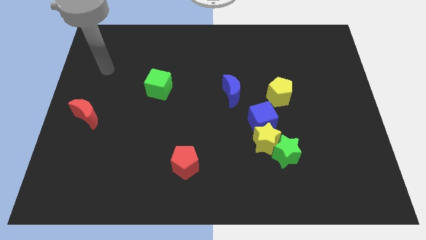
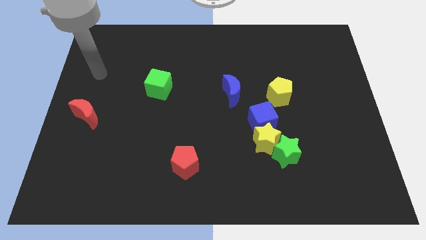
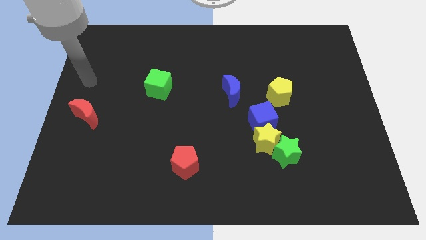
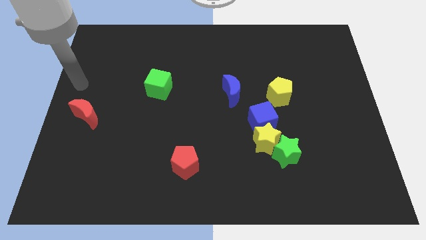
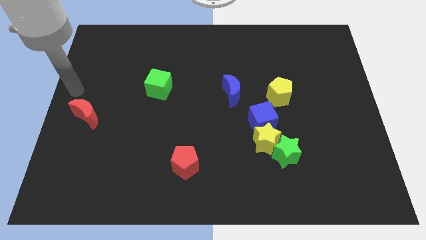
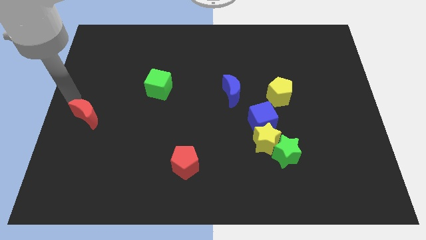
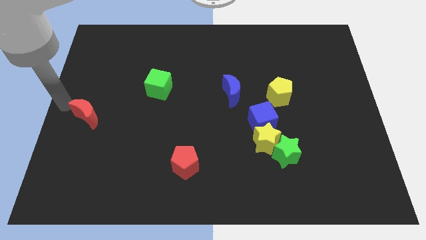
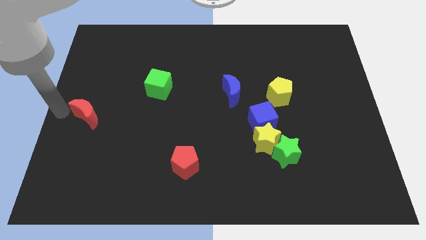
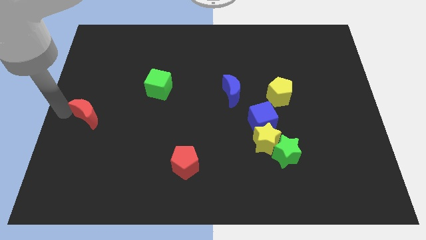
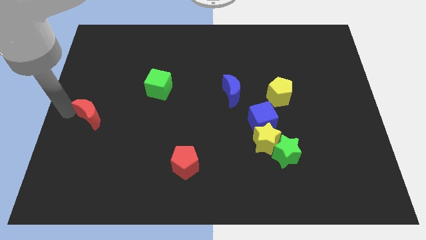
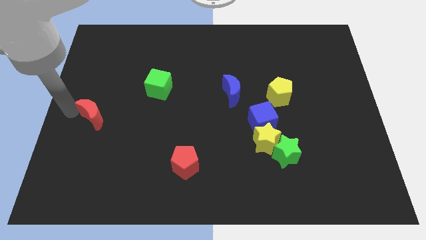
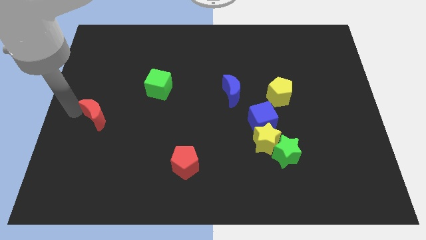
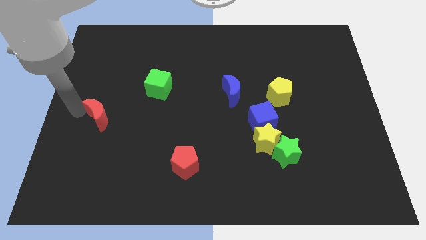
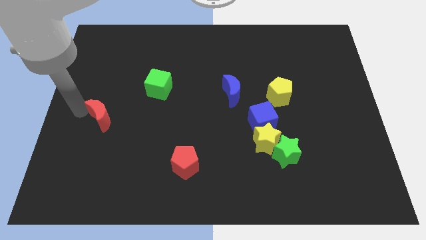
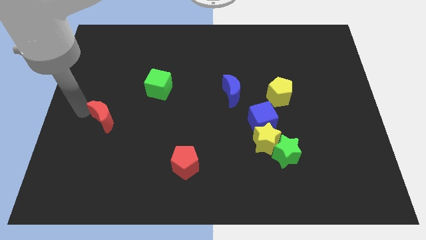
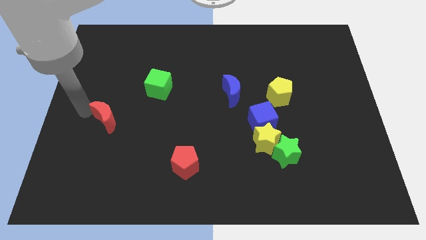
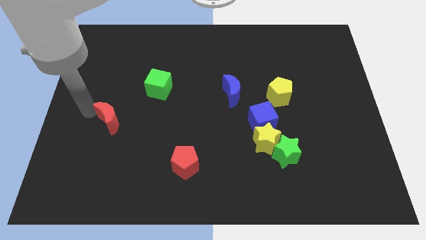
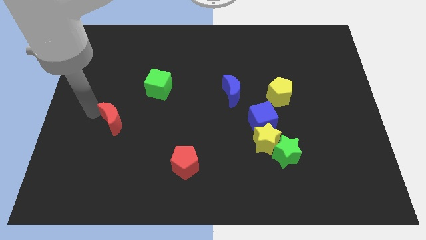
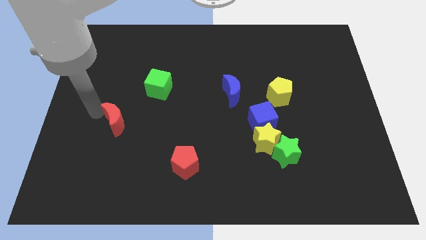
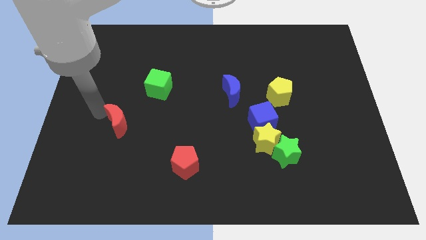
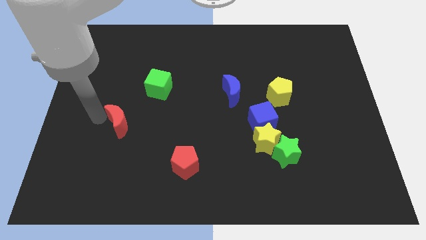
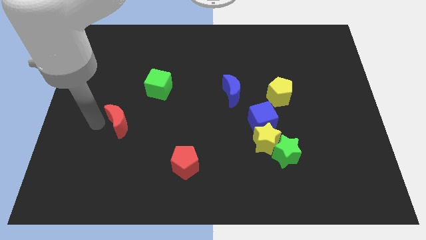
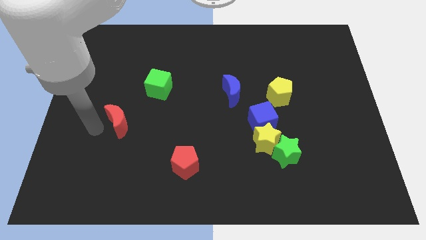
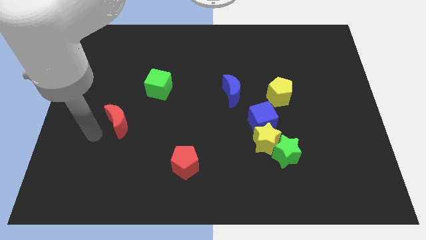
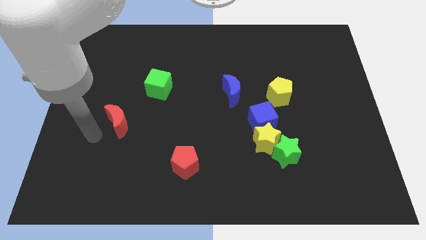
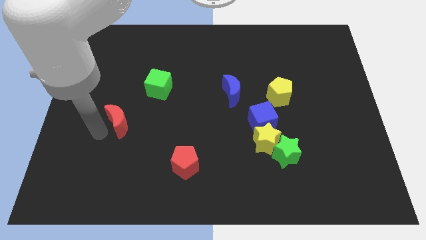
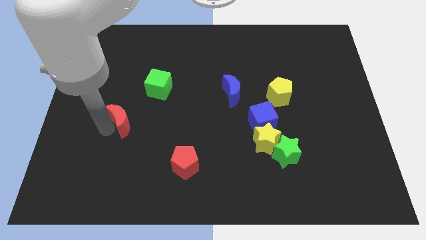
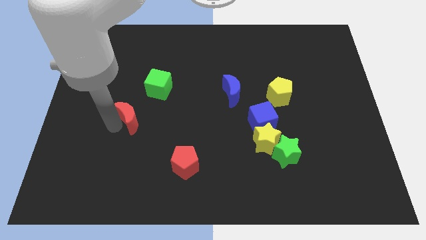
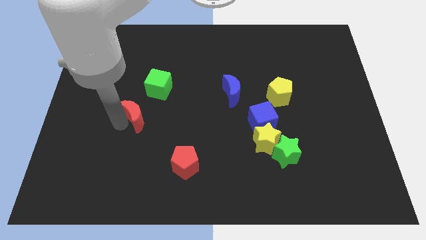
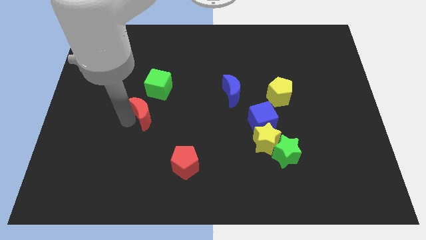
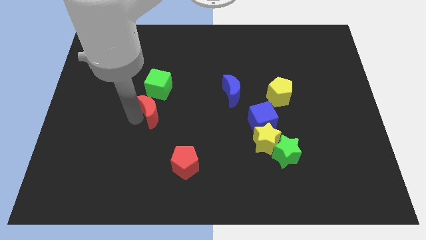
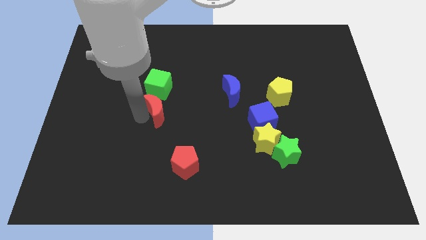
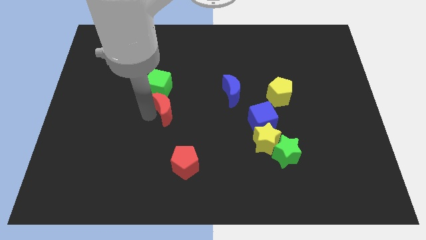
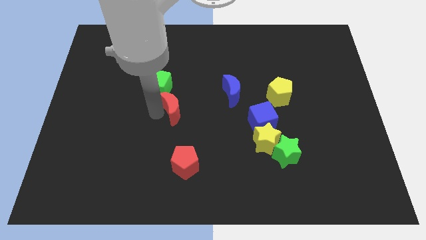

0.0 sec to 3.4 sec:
slide the red moon right

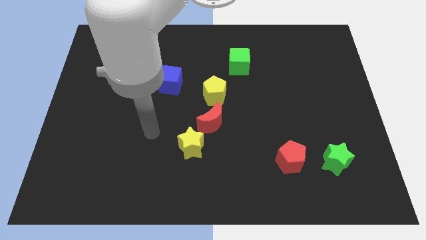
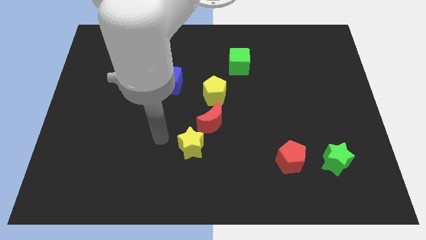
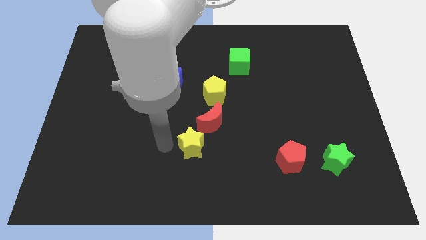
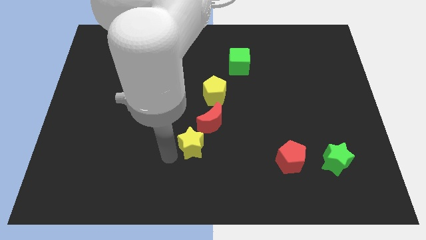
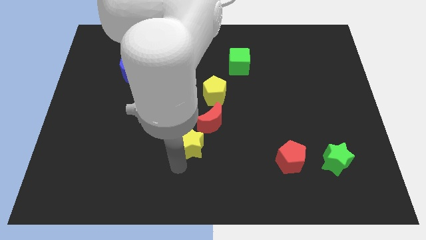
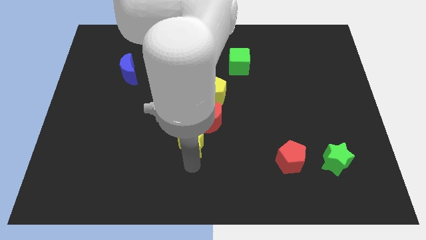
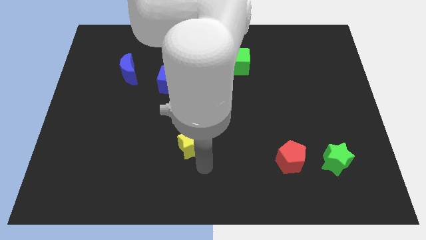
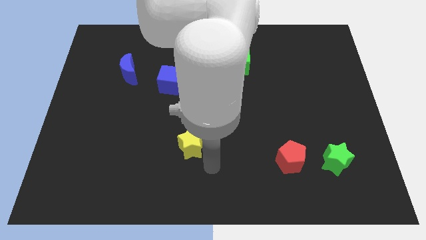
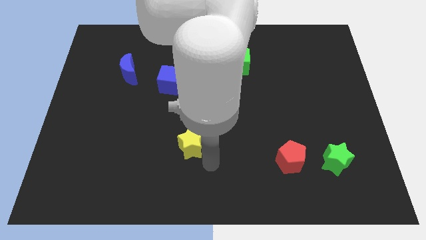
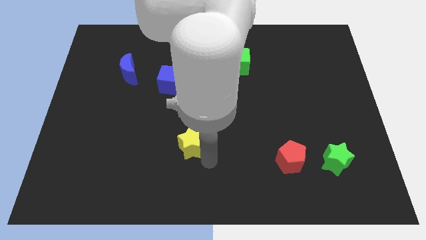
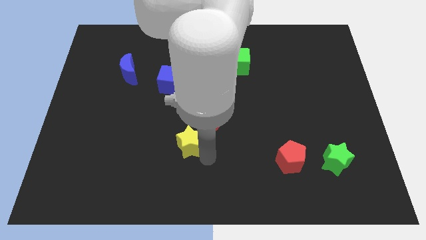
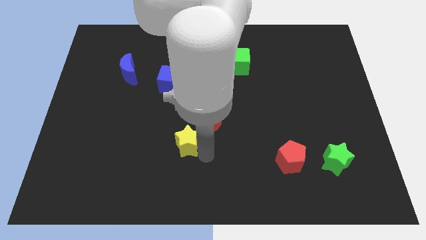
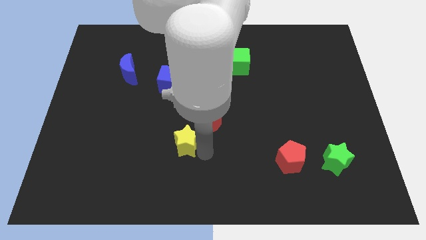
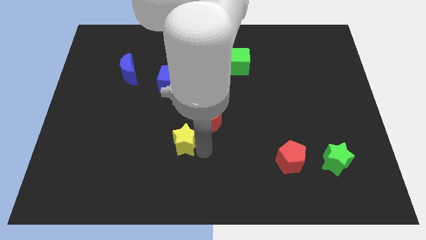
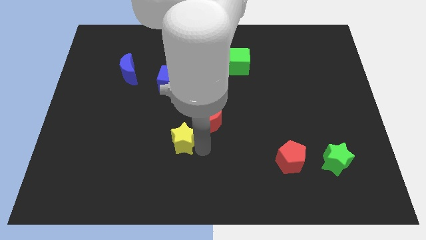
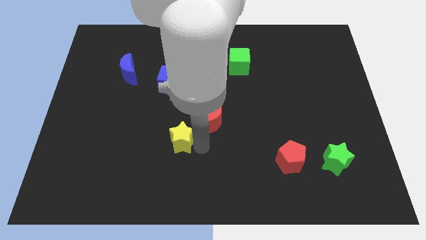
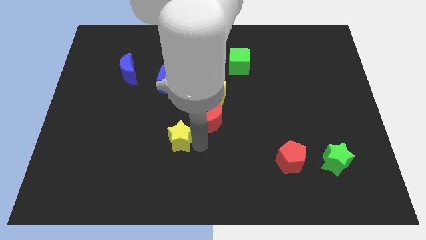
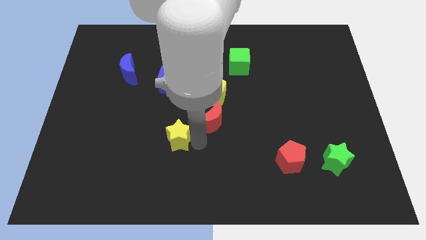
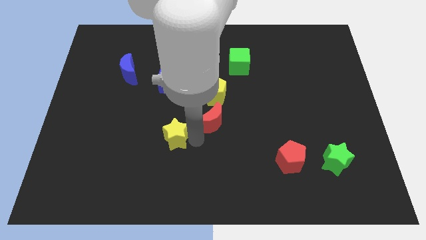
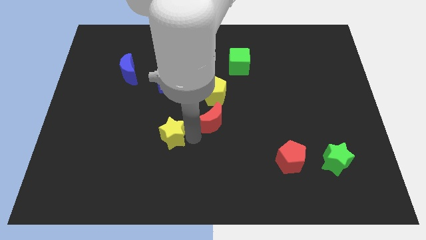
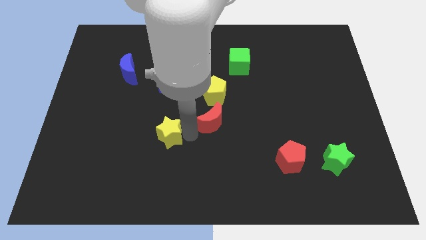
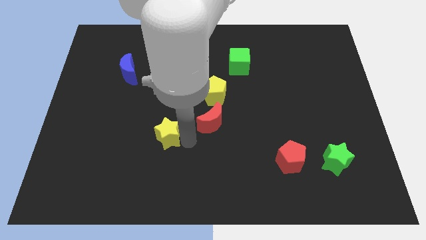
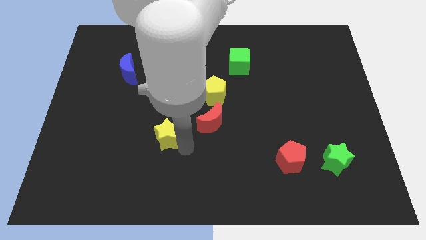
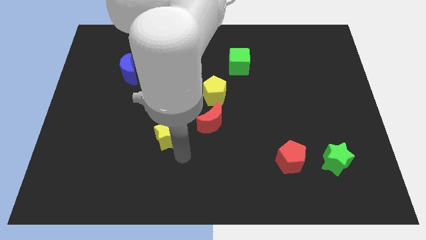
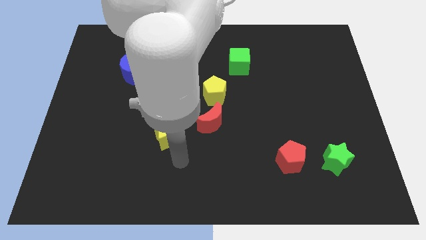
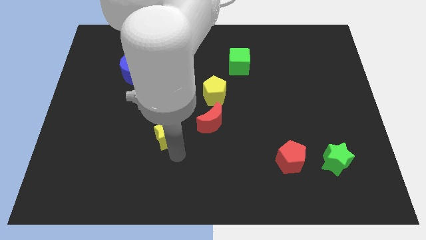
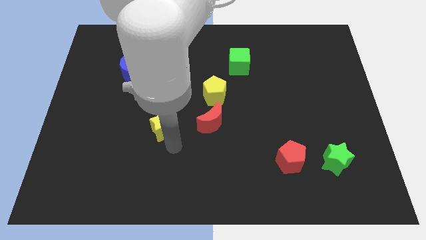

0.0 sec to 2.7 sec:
move the yellow star a little upwards and then left

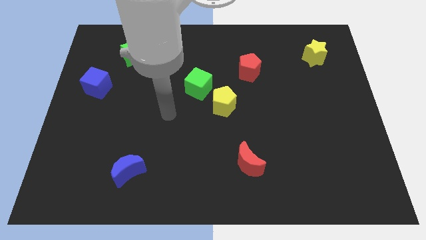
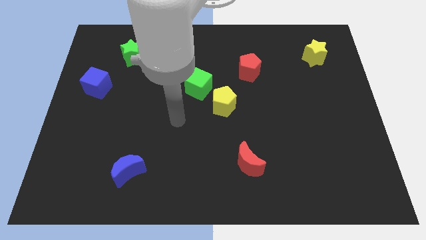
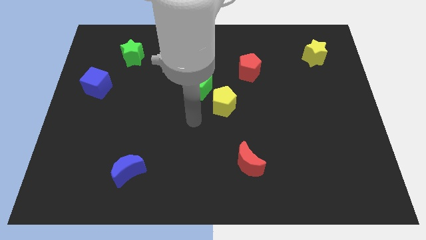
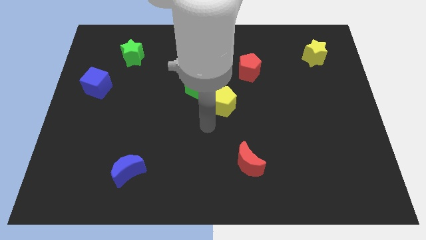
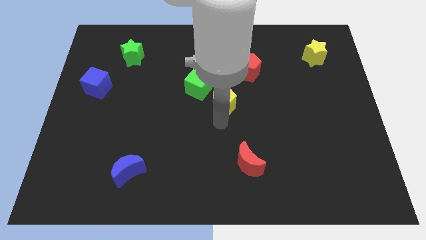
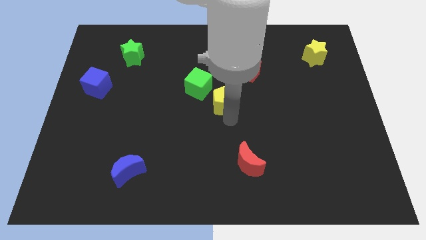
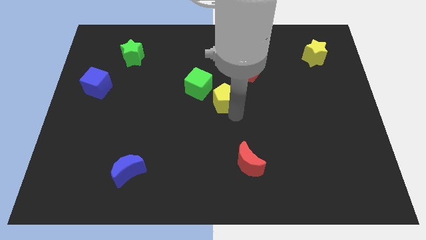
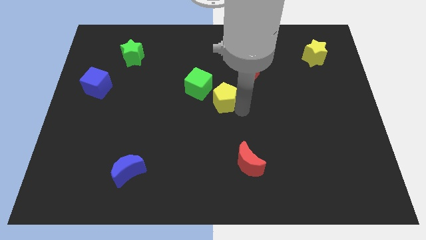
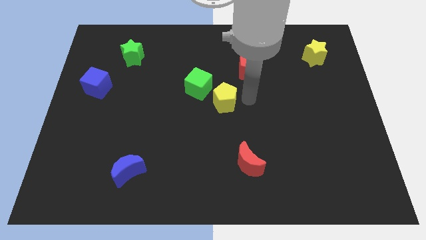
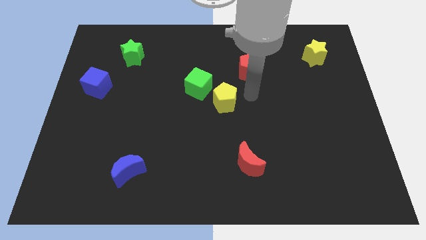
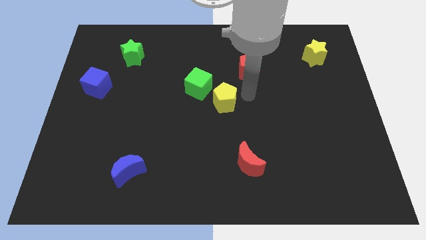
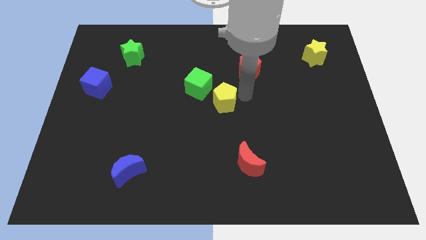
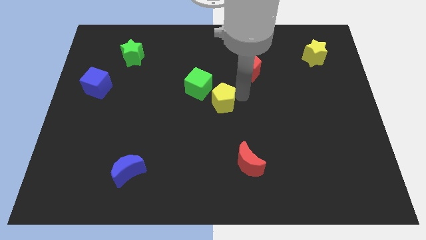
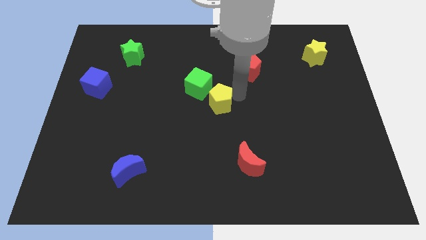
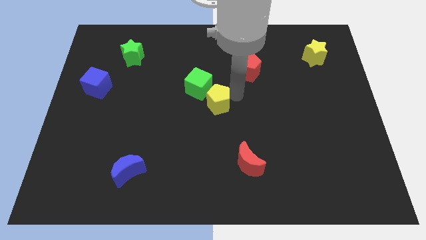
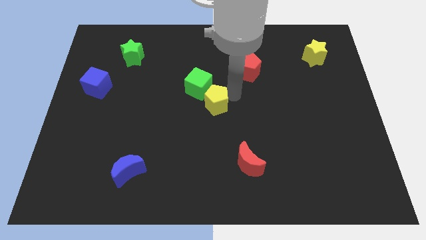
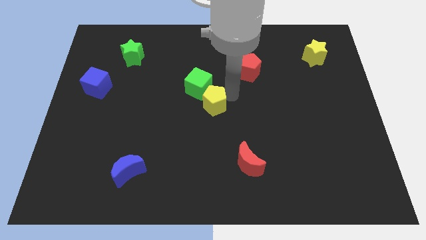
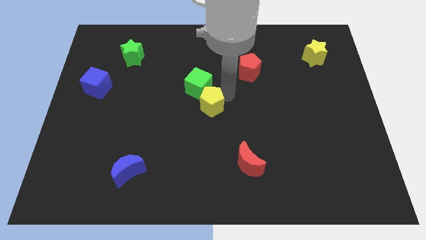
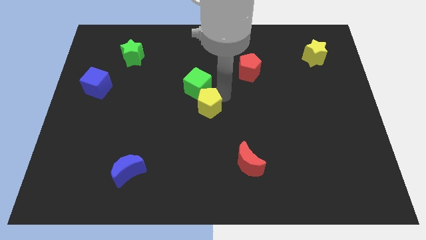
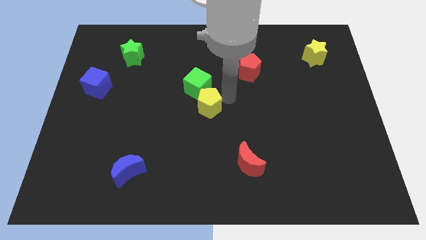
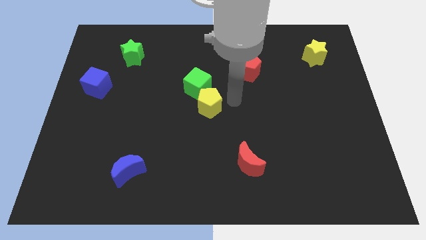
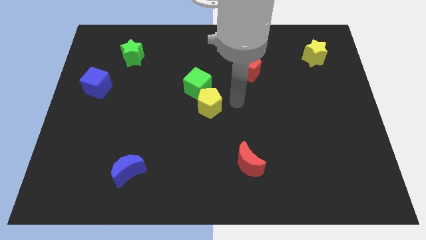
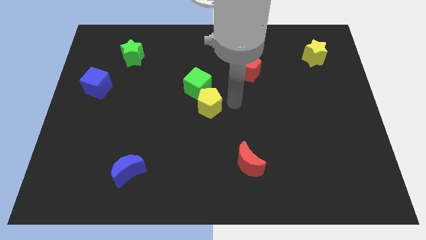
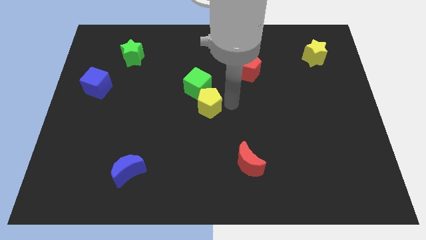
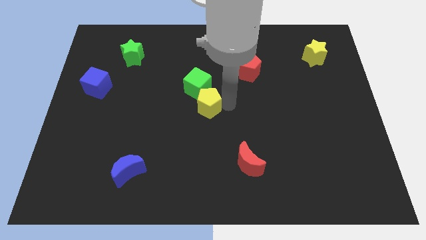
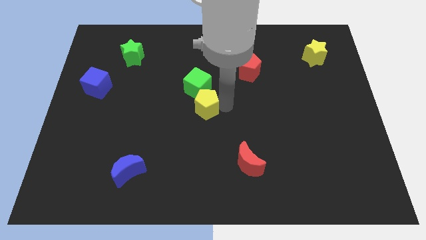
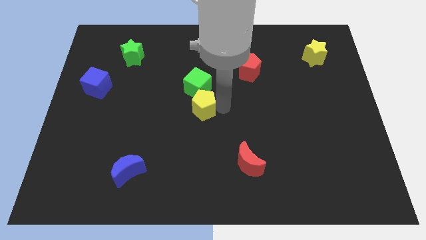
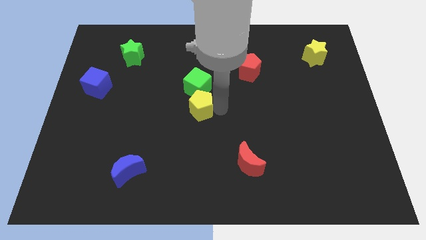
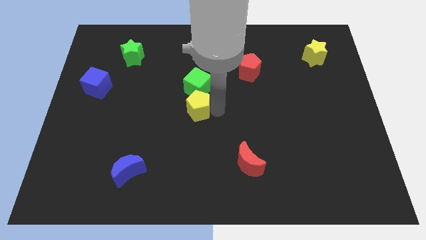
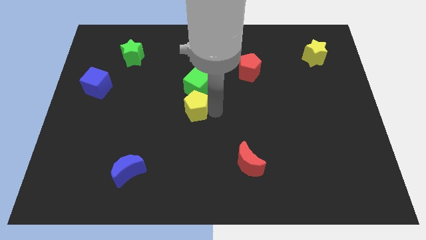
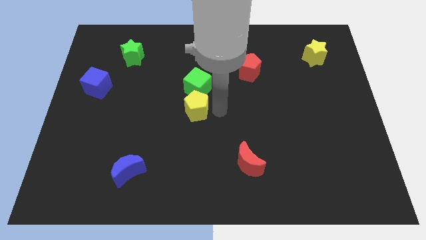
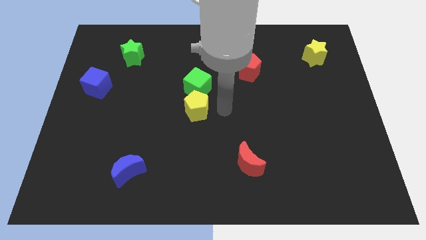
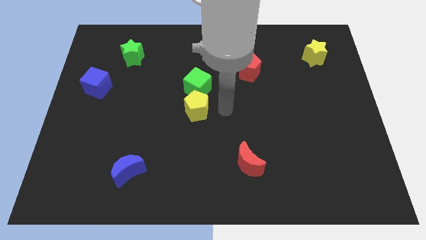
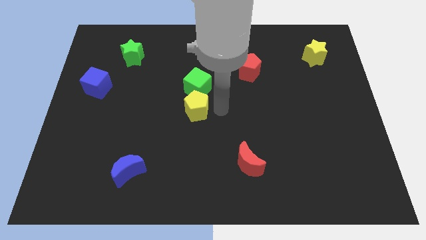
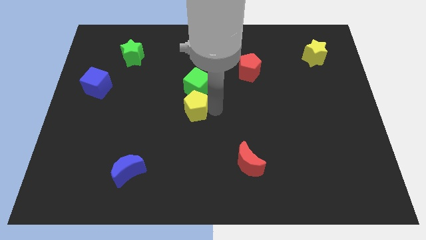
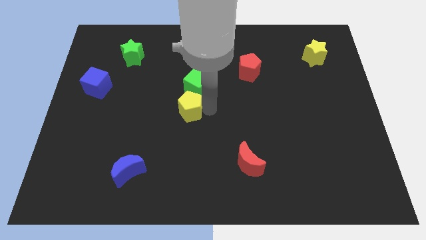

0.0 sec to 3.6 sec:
slightly slide the yellow pentagon left
